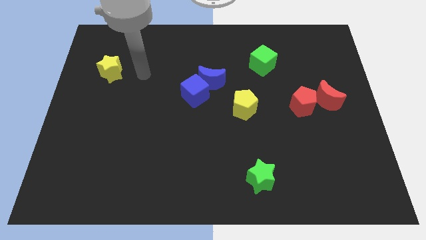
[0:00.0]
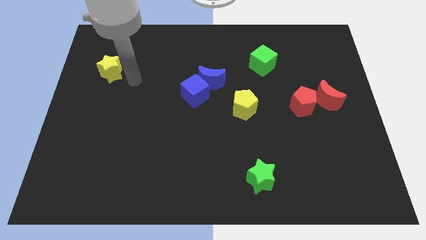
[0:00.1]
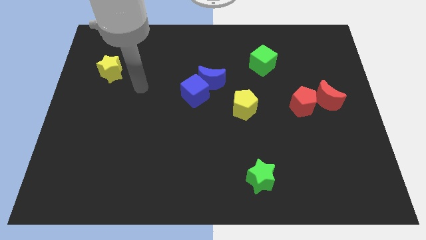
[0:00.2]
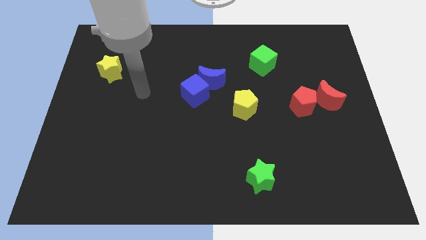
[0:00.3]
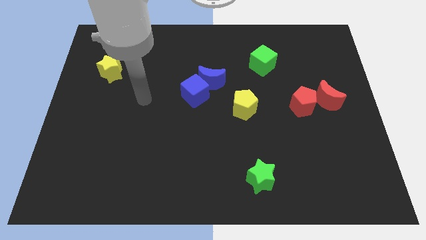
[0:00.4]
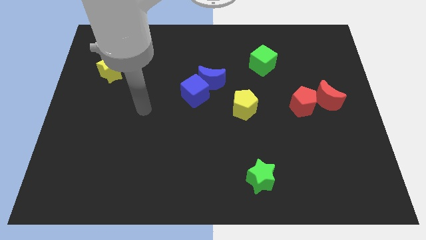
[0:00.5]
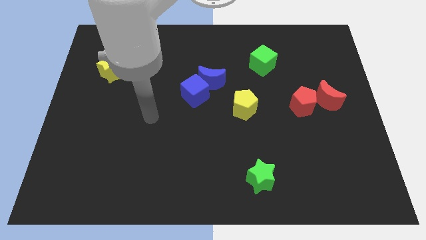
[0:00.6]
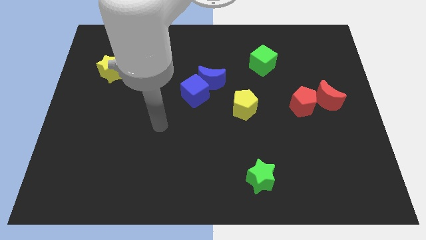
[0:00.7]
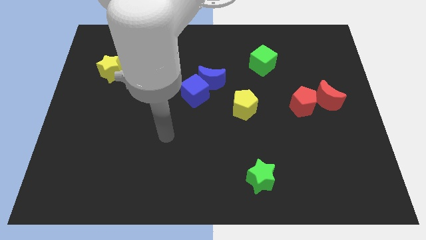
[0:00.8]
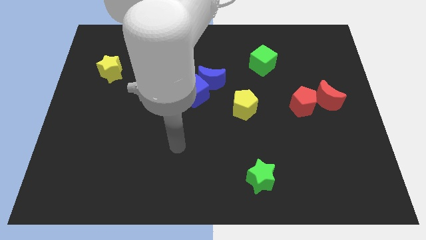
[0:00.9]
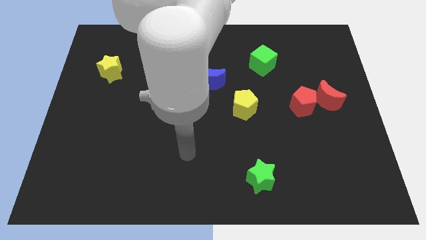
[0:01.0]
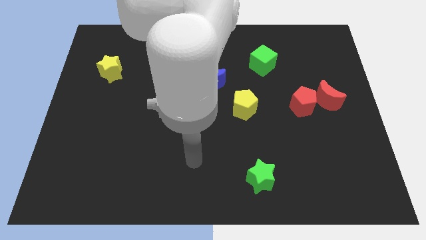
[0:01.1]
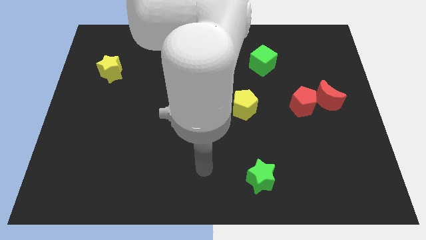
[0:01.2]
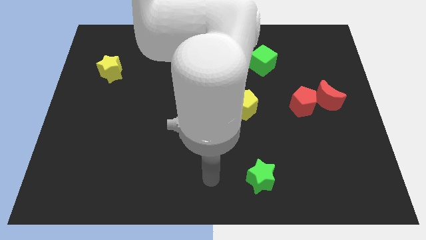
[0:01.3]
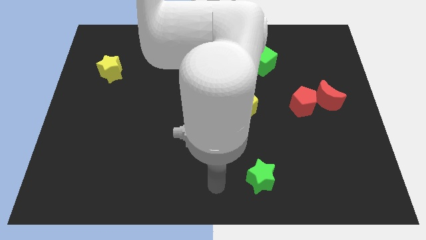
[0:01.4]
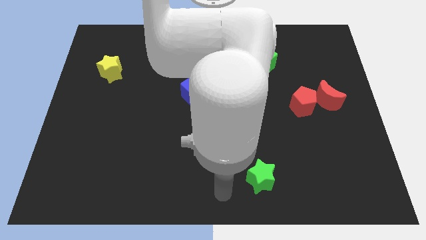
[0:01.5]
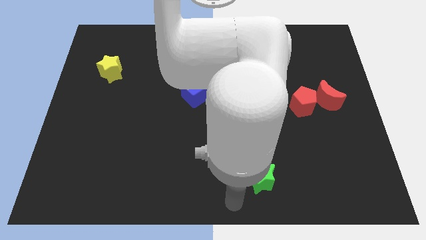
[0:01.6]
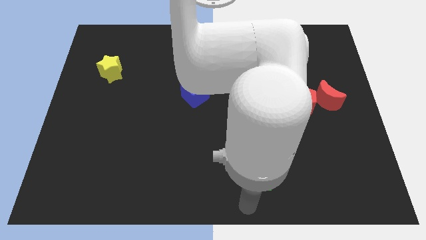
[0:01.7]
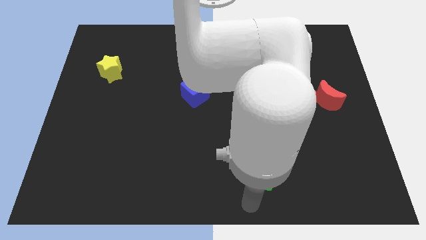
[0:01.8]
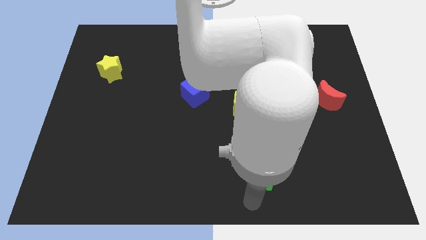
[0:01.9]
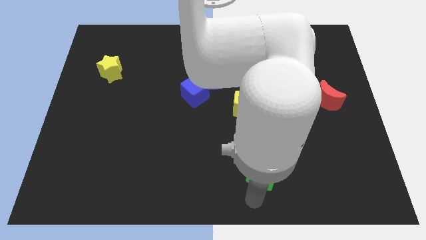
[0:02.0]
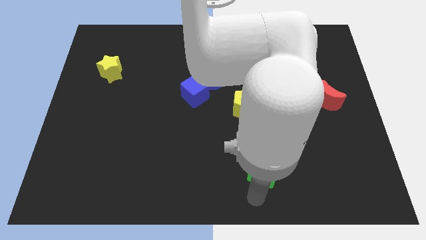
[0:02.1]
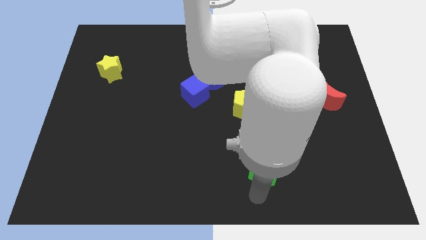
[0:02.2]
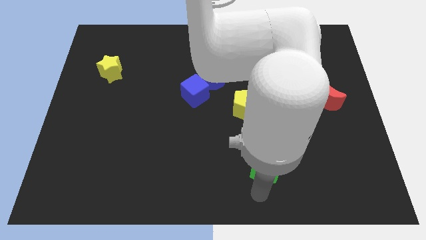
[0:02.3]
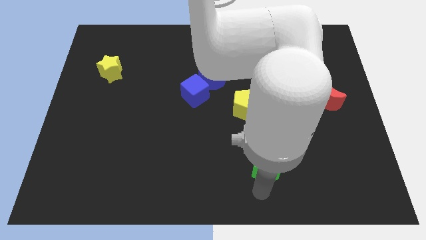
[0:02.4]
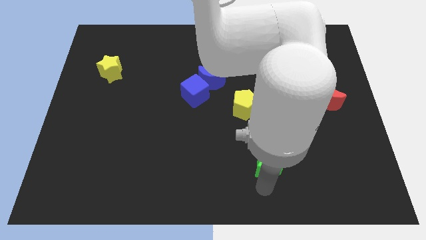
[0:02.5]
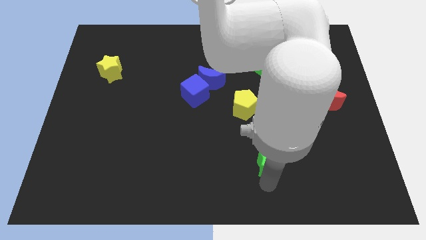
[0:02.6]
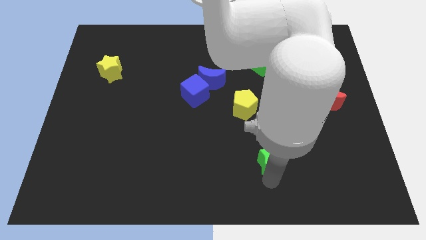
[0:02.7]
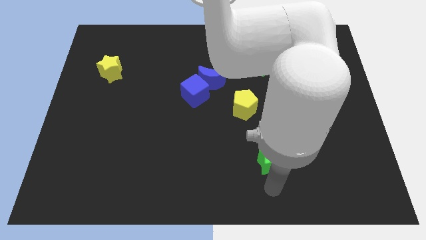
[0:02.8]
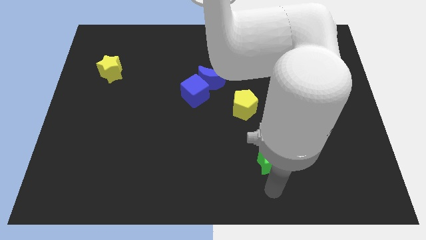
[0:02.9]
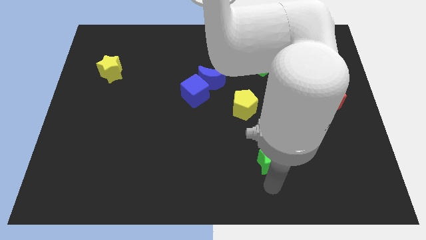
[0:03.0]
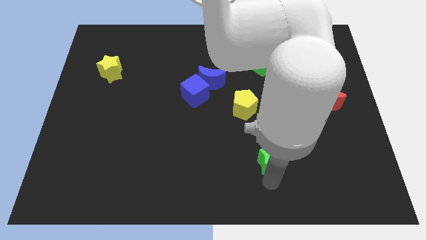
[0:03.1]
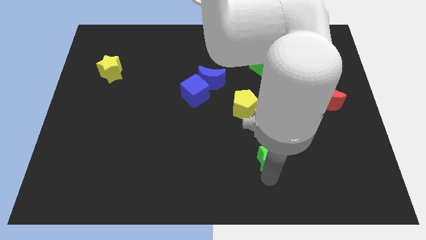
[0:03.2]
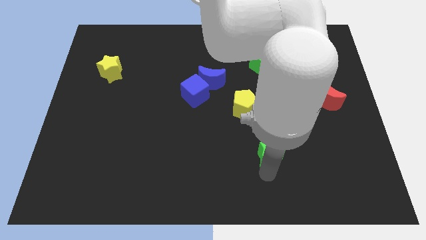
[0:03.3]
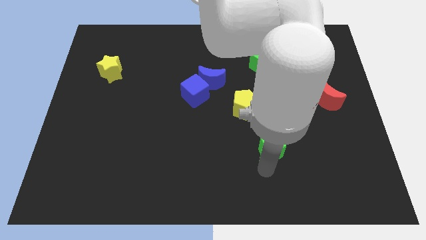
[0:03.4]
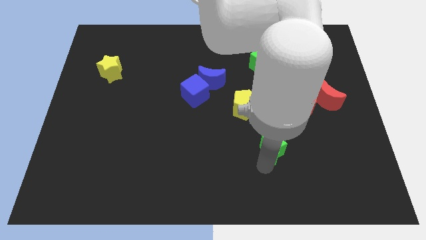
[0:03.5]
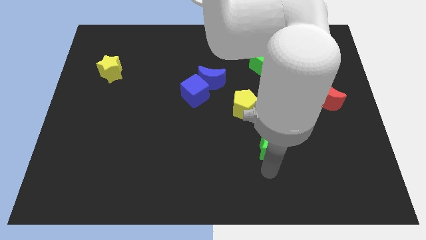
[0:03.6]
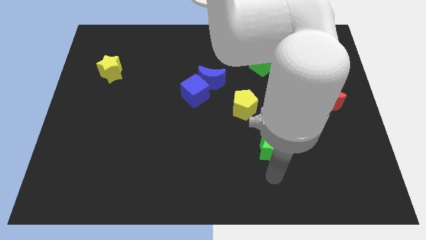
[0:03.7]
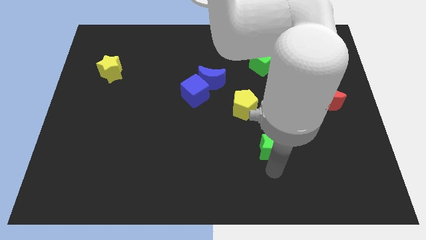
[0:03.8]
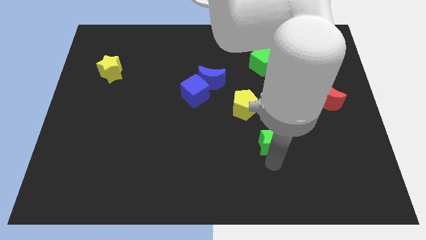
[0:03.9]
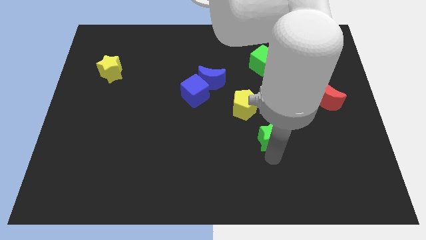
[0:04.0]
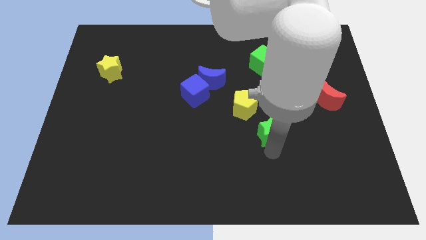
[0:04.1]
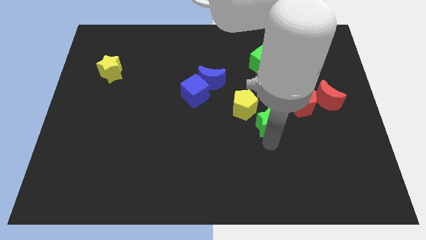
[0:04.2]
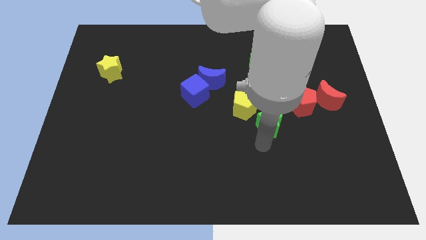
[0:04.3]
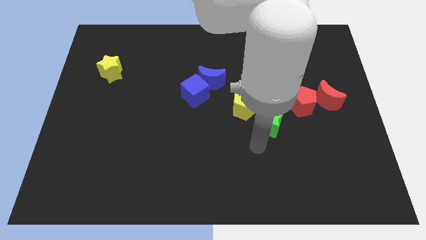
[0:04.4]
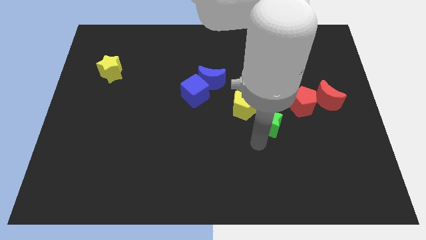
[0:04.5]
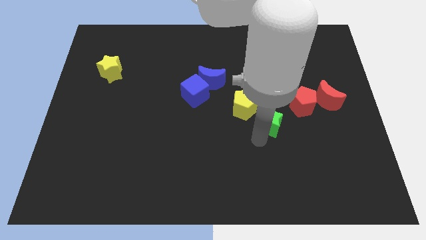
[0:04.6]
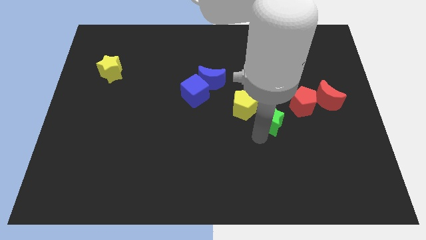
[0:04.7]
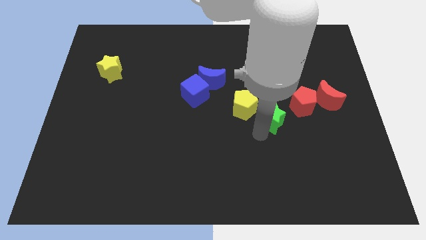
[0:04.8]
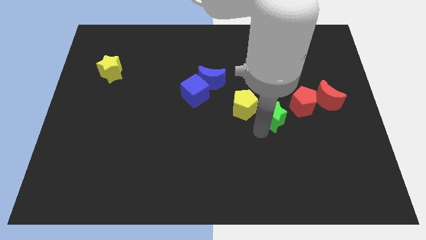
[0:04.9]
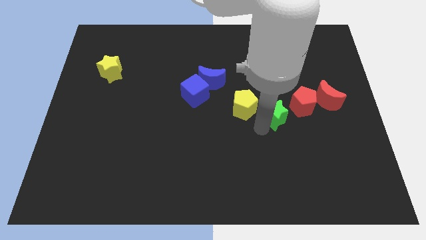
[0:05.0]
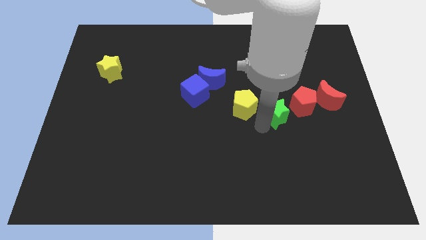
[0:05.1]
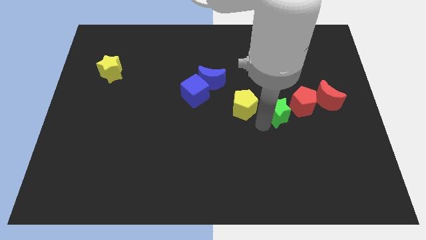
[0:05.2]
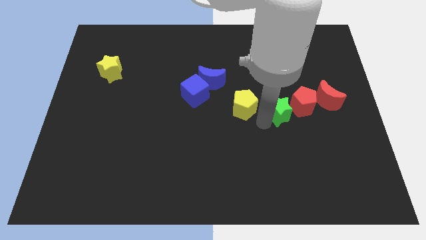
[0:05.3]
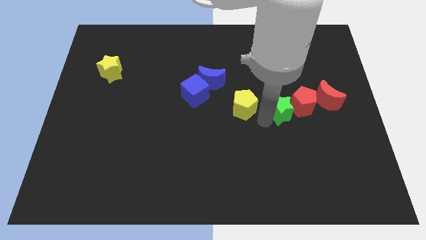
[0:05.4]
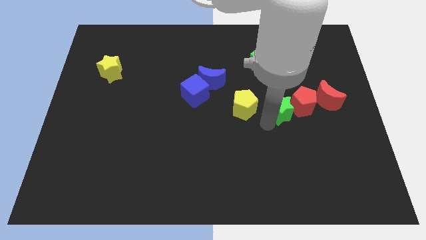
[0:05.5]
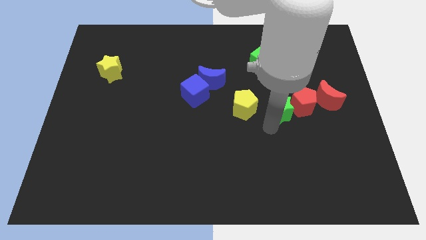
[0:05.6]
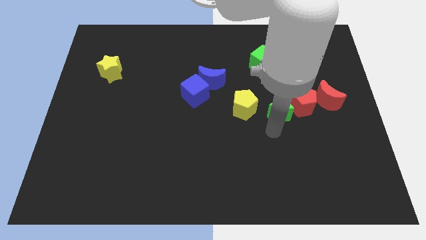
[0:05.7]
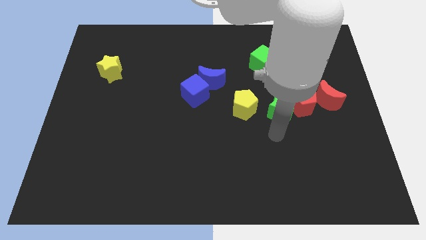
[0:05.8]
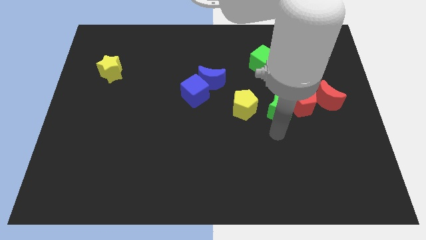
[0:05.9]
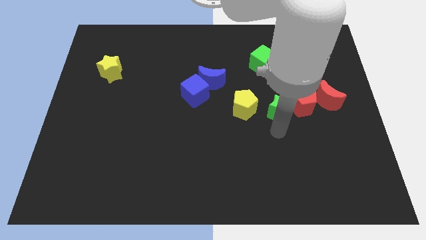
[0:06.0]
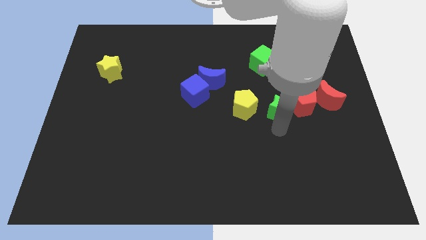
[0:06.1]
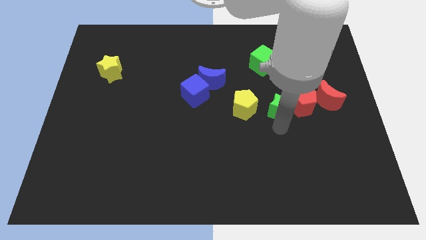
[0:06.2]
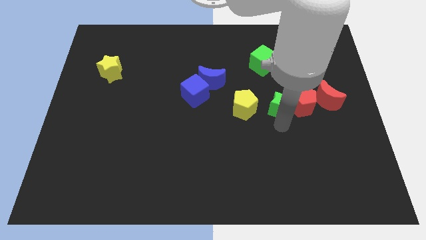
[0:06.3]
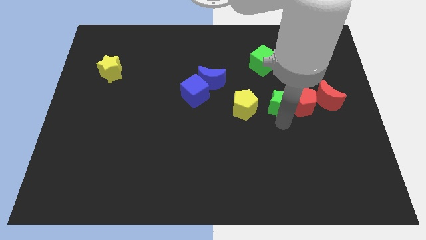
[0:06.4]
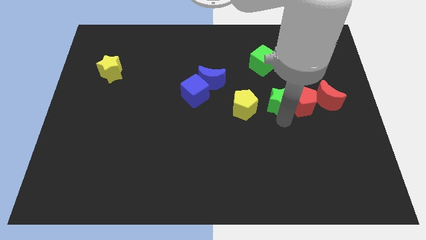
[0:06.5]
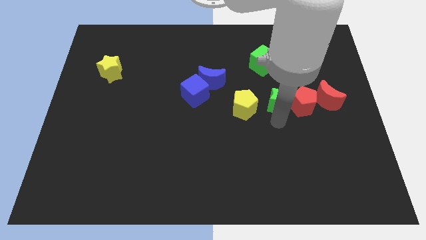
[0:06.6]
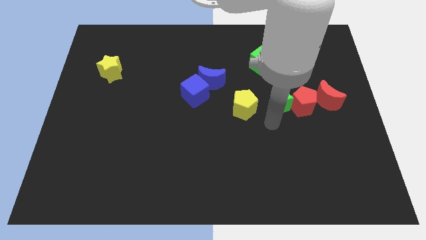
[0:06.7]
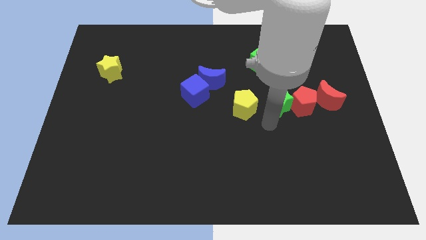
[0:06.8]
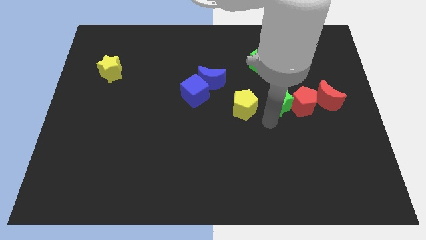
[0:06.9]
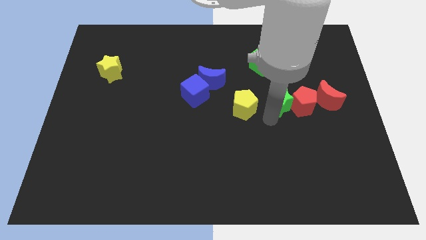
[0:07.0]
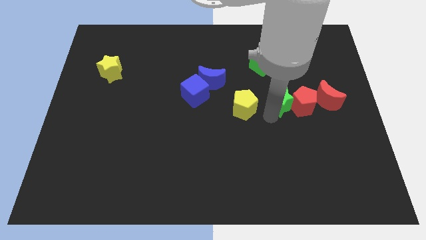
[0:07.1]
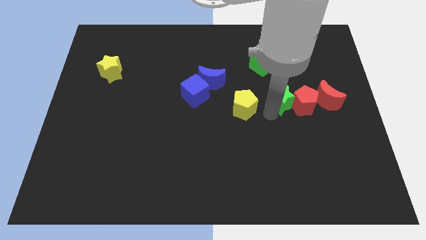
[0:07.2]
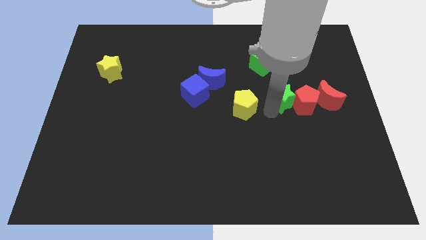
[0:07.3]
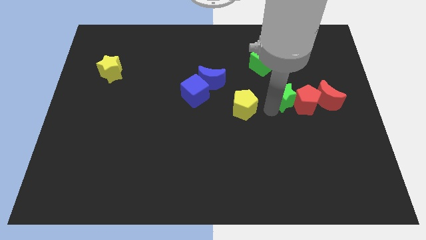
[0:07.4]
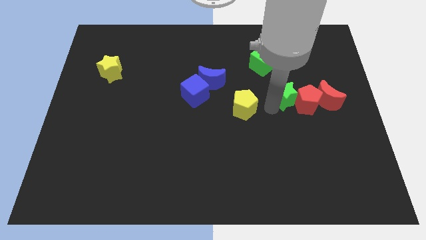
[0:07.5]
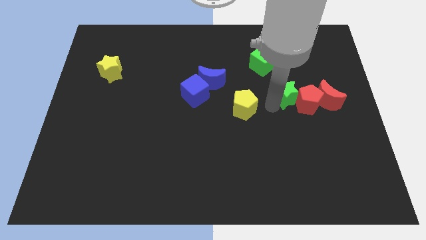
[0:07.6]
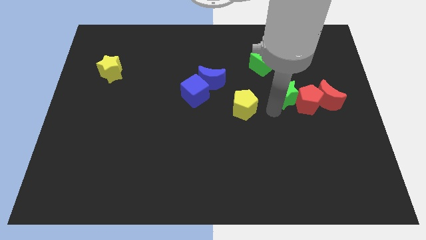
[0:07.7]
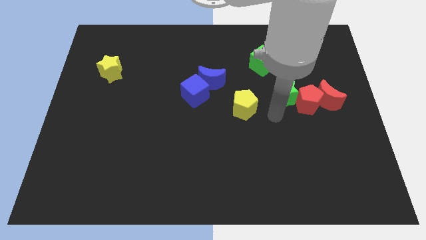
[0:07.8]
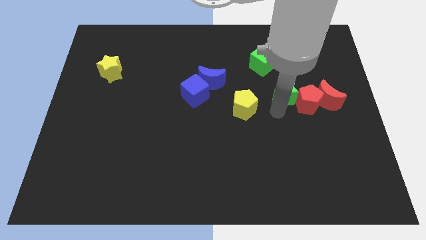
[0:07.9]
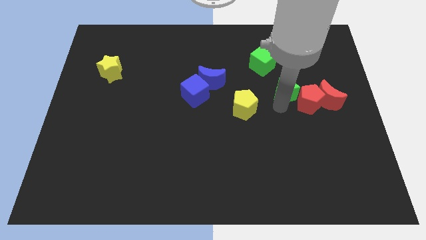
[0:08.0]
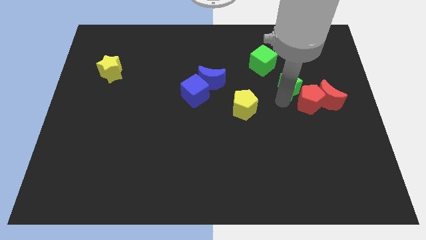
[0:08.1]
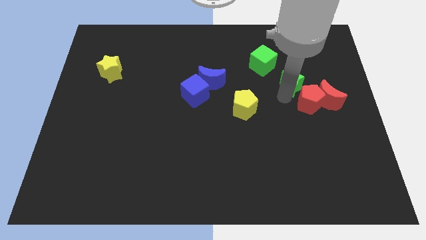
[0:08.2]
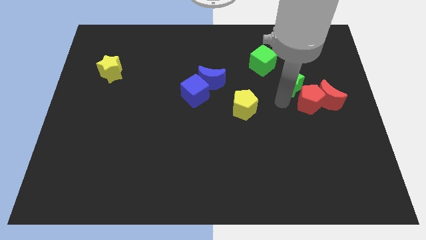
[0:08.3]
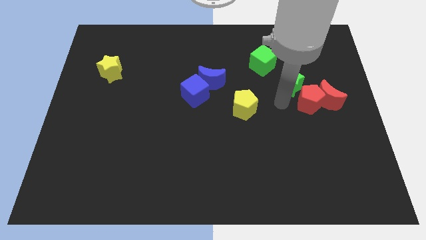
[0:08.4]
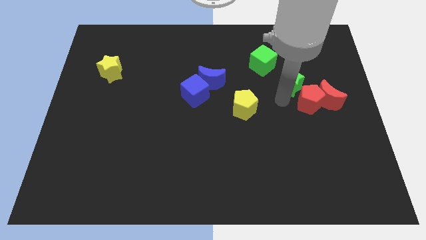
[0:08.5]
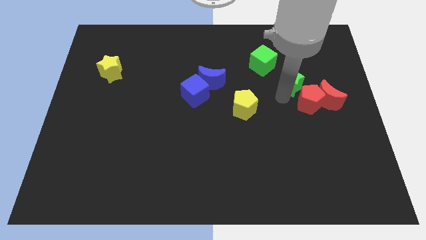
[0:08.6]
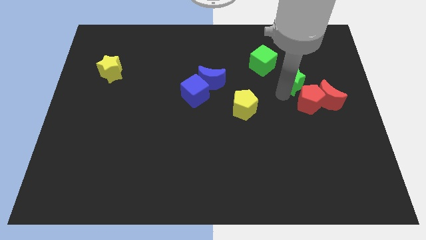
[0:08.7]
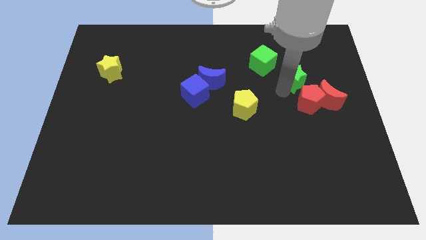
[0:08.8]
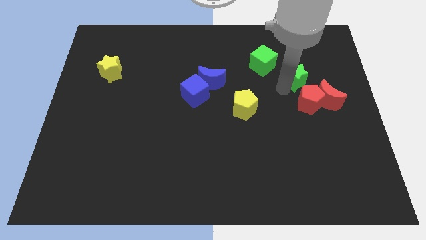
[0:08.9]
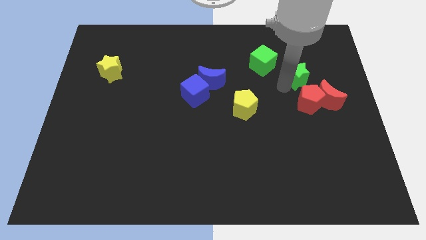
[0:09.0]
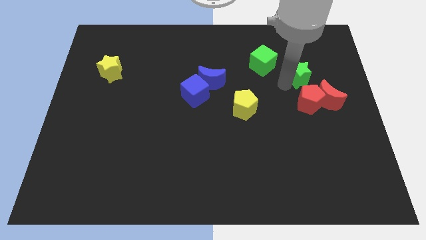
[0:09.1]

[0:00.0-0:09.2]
slide the green star right of the green cube
